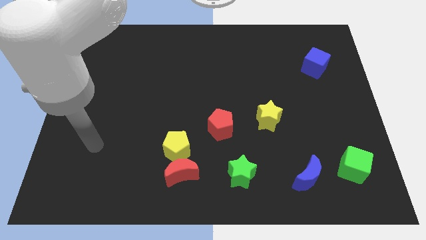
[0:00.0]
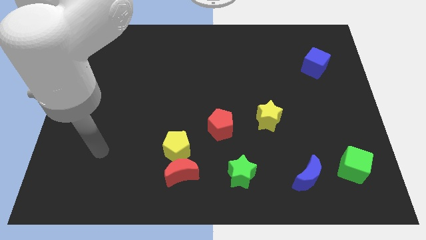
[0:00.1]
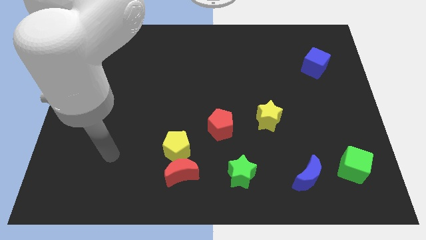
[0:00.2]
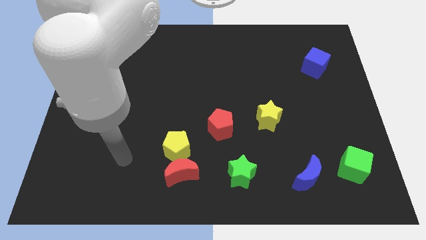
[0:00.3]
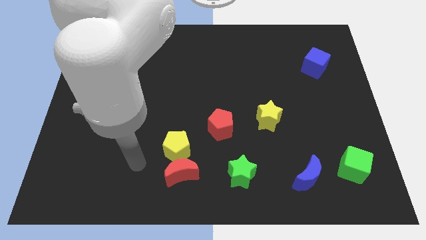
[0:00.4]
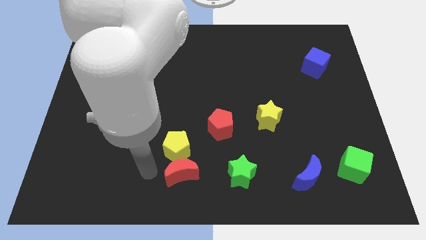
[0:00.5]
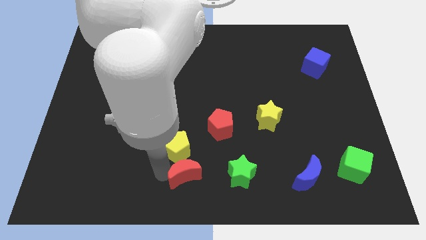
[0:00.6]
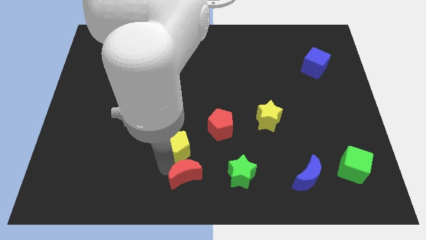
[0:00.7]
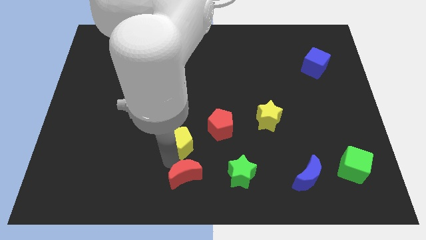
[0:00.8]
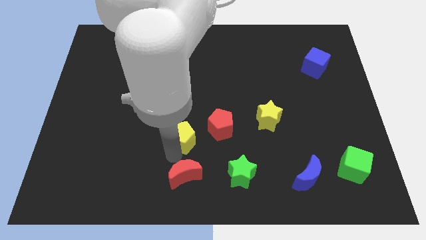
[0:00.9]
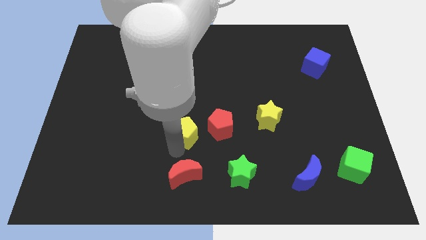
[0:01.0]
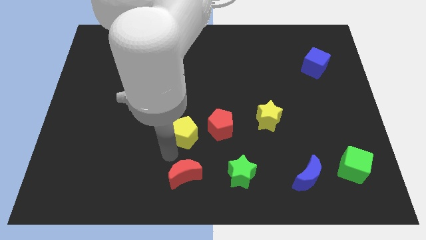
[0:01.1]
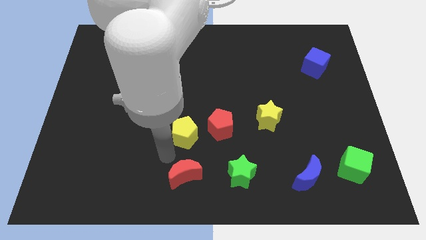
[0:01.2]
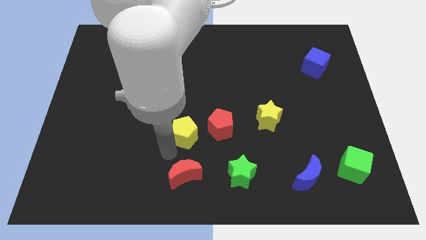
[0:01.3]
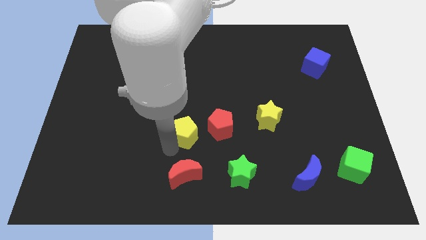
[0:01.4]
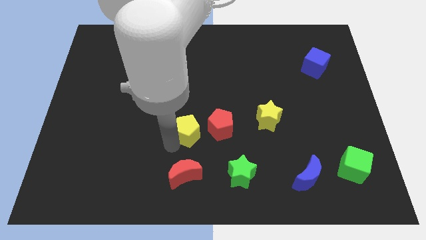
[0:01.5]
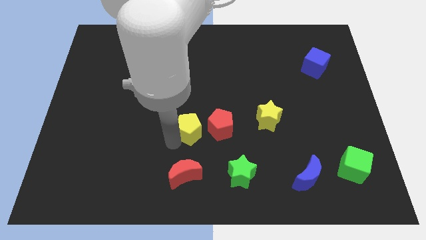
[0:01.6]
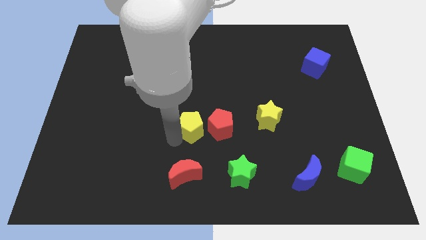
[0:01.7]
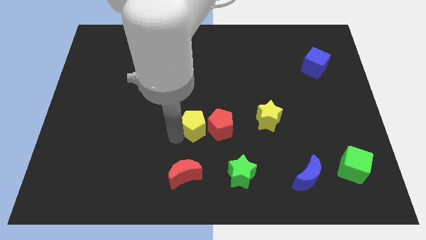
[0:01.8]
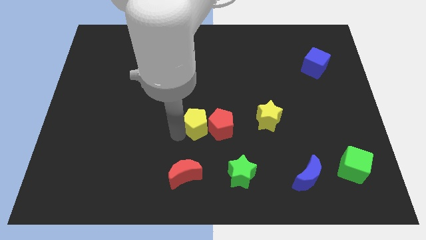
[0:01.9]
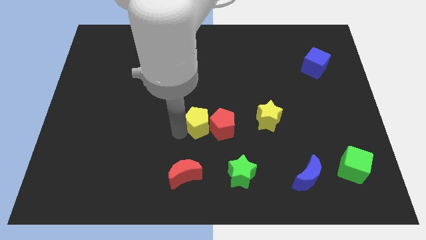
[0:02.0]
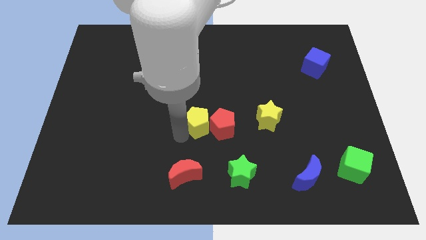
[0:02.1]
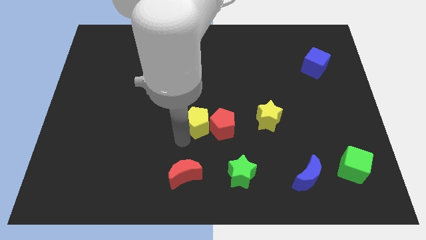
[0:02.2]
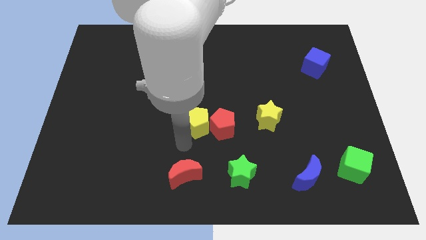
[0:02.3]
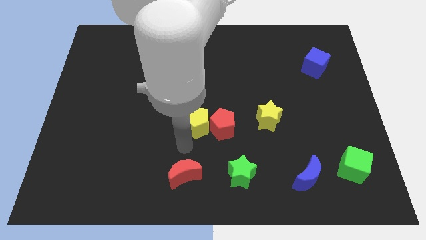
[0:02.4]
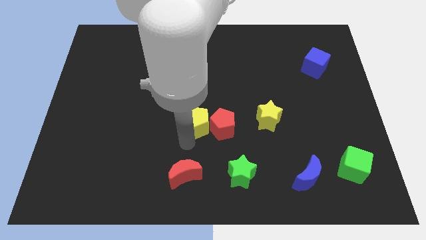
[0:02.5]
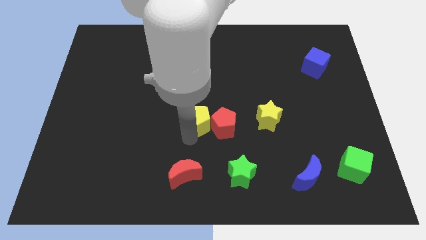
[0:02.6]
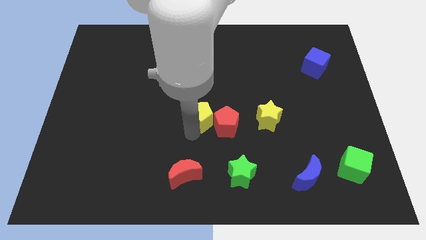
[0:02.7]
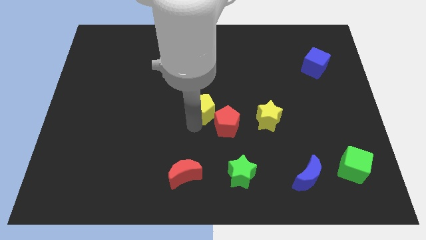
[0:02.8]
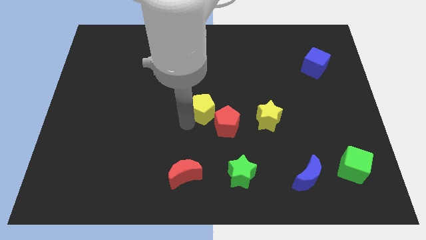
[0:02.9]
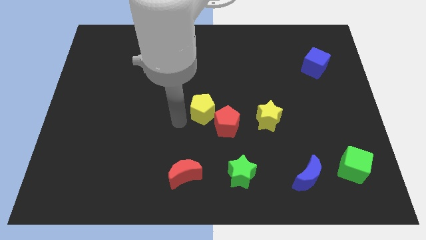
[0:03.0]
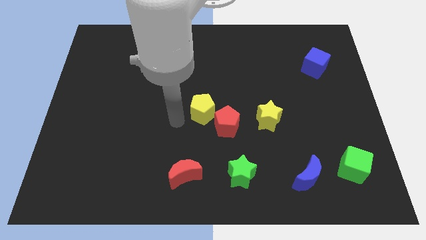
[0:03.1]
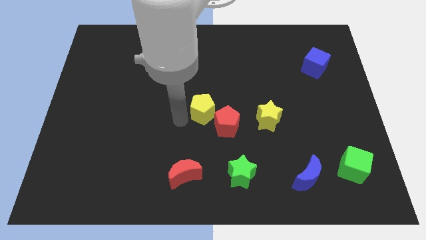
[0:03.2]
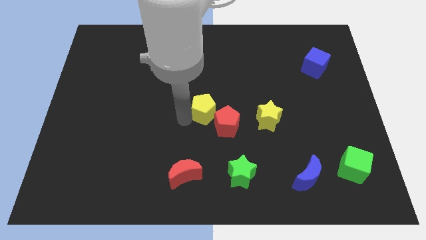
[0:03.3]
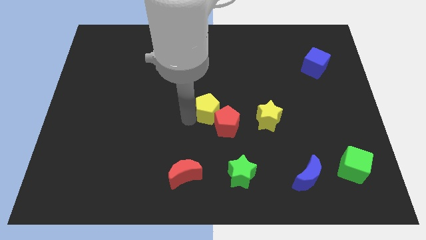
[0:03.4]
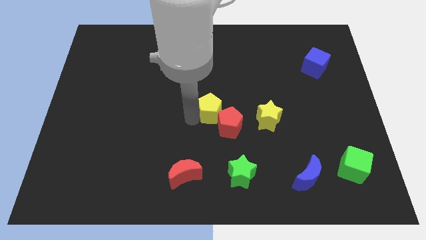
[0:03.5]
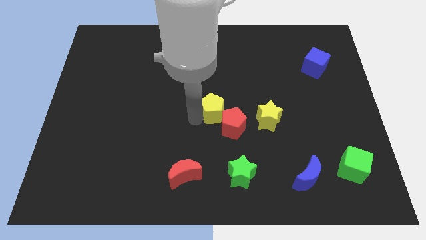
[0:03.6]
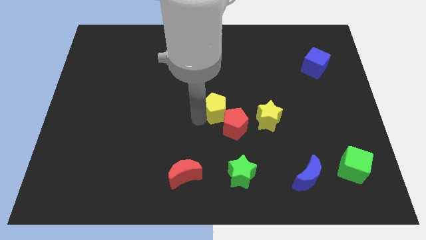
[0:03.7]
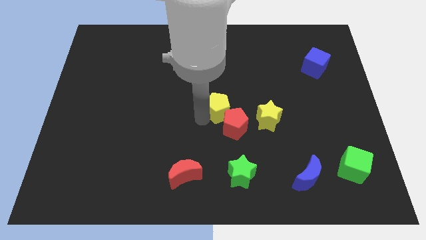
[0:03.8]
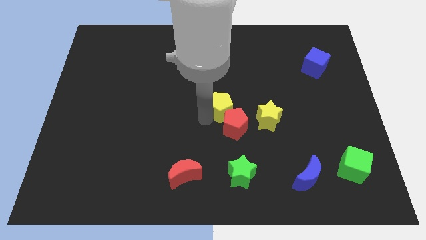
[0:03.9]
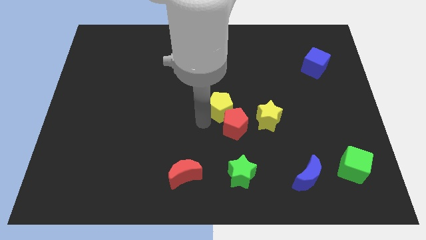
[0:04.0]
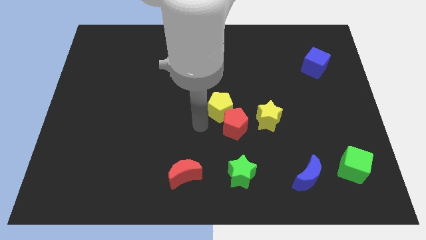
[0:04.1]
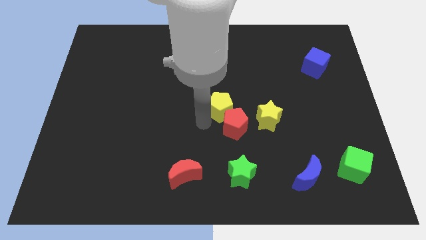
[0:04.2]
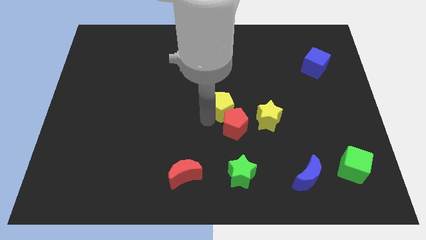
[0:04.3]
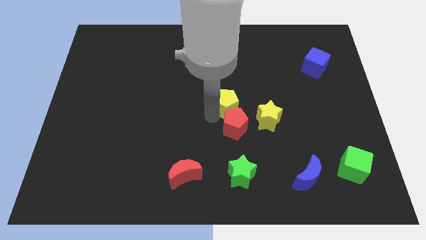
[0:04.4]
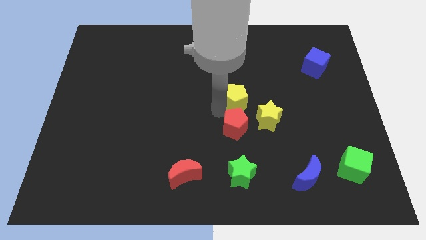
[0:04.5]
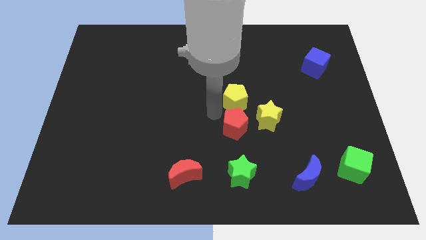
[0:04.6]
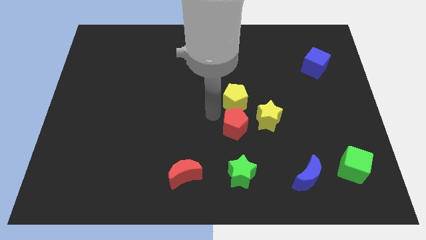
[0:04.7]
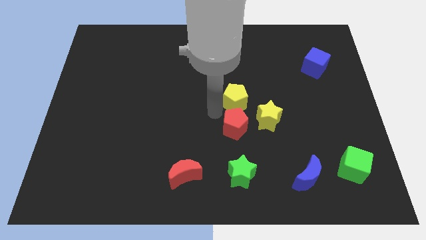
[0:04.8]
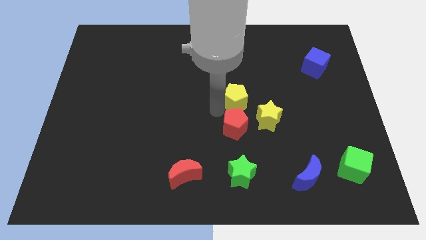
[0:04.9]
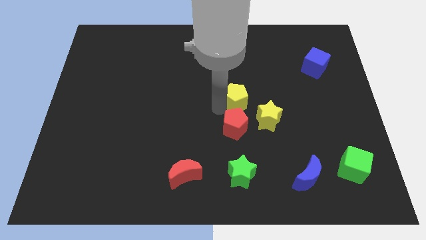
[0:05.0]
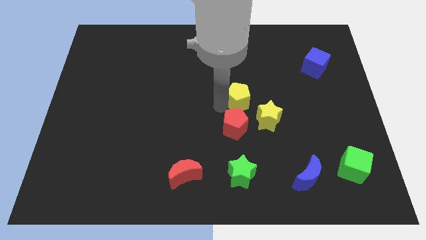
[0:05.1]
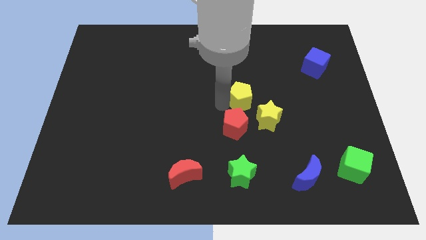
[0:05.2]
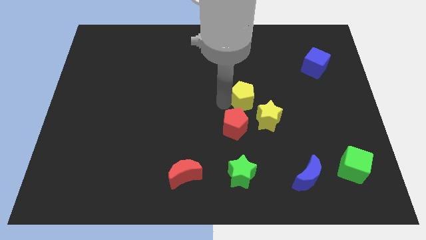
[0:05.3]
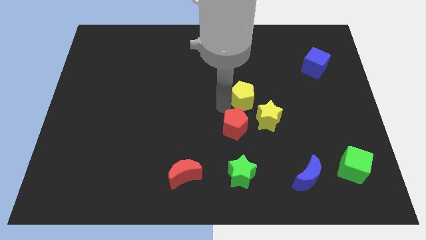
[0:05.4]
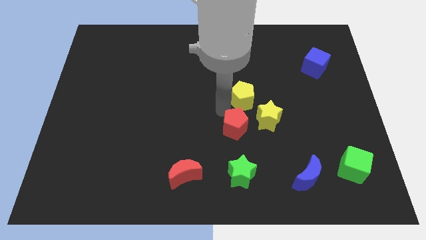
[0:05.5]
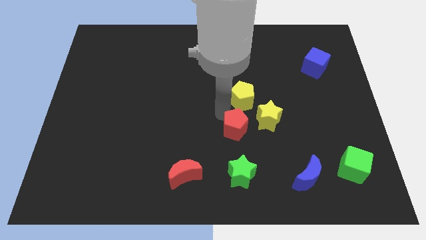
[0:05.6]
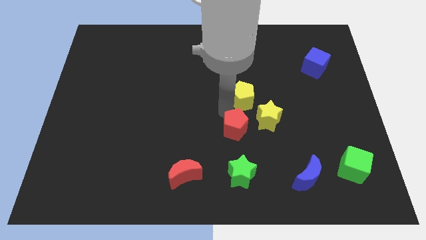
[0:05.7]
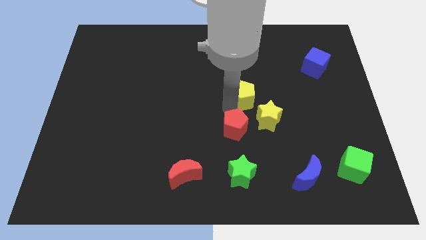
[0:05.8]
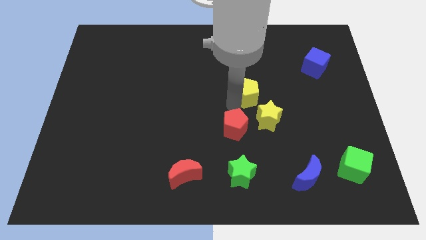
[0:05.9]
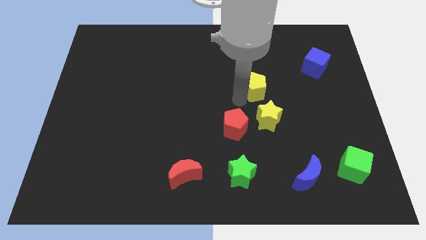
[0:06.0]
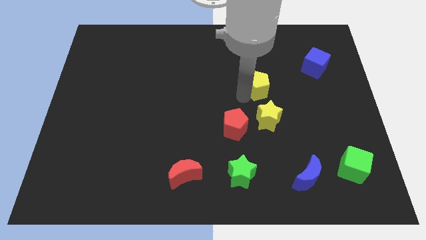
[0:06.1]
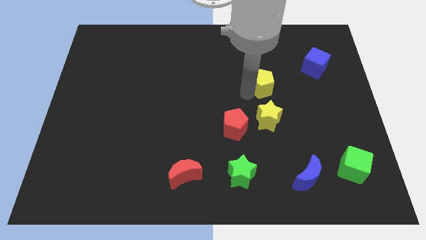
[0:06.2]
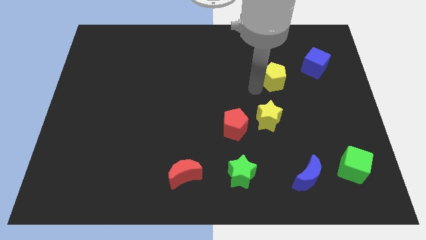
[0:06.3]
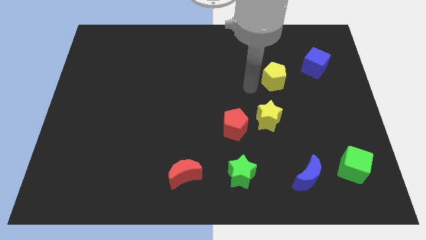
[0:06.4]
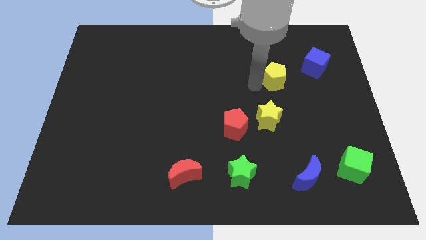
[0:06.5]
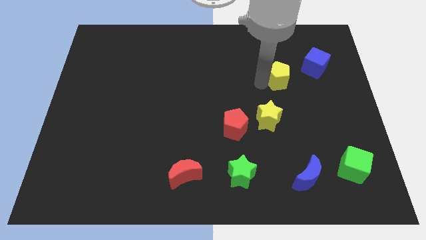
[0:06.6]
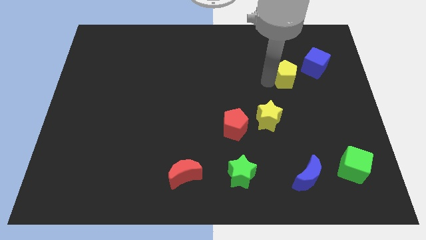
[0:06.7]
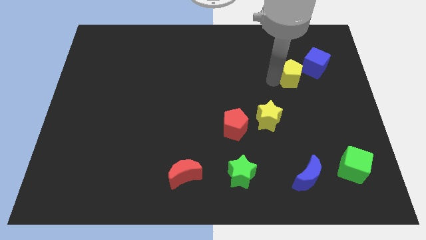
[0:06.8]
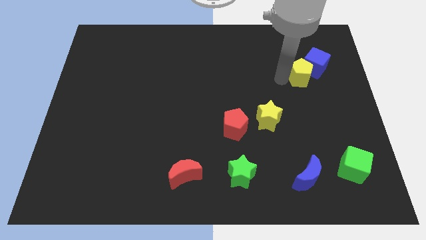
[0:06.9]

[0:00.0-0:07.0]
put the yellow pentagon close to the blue cube
